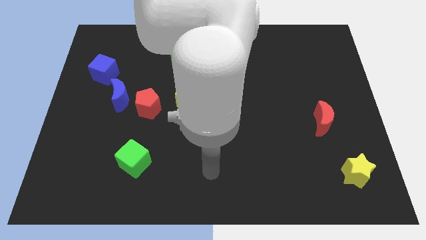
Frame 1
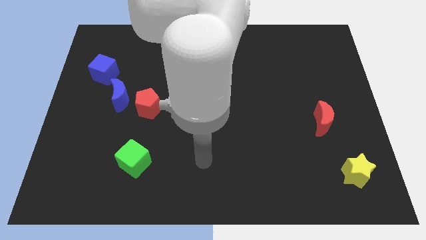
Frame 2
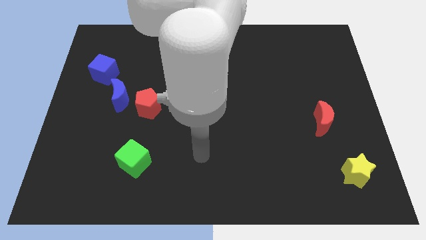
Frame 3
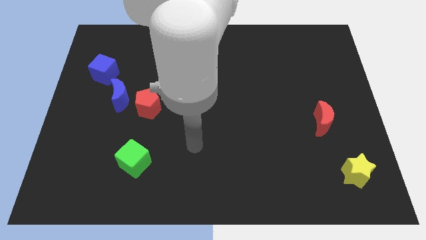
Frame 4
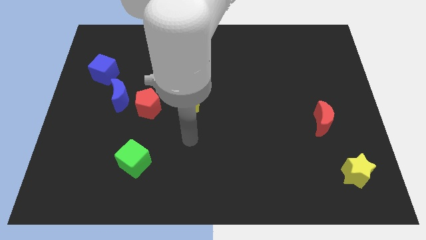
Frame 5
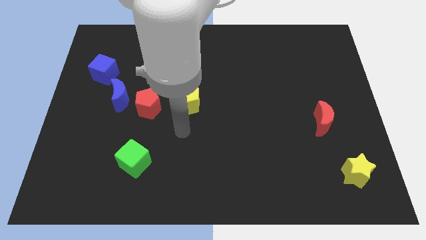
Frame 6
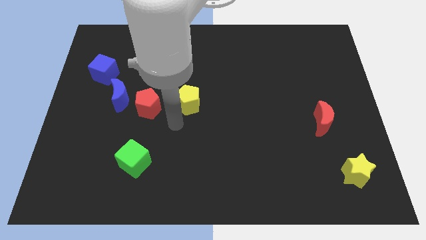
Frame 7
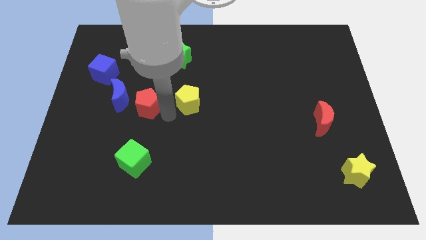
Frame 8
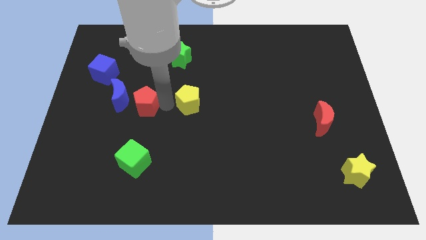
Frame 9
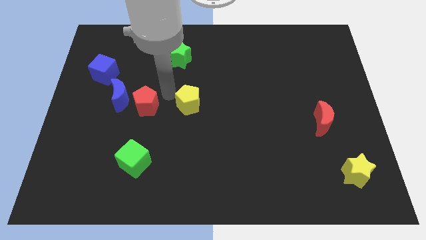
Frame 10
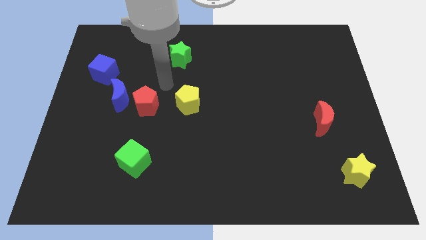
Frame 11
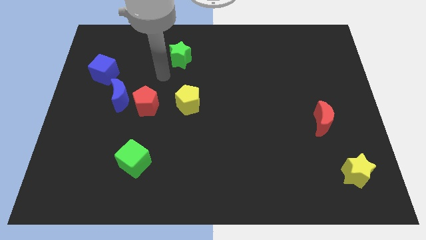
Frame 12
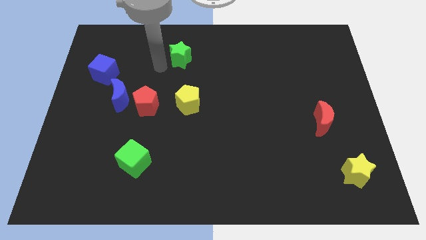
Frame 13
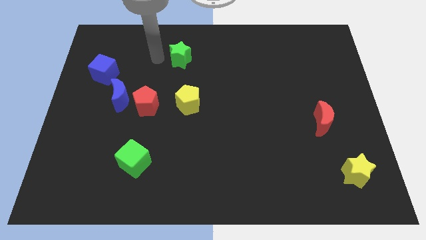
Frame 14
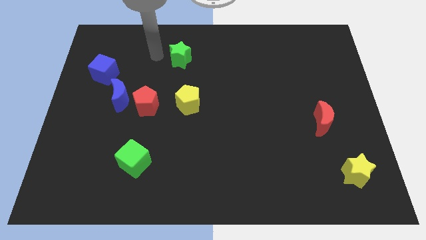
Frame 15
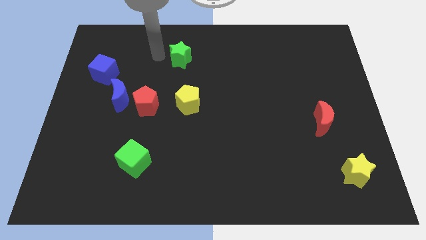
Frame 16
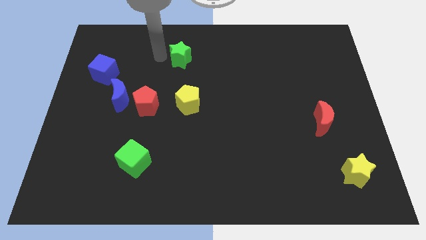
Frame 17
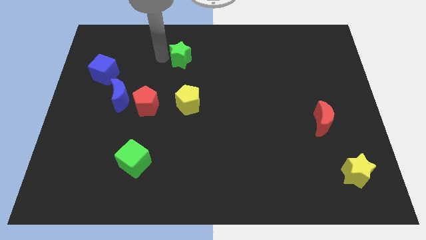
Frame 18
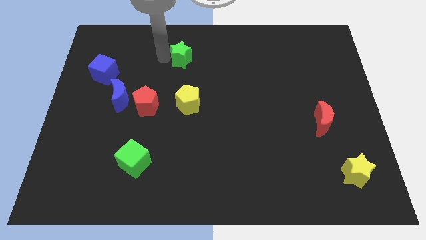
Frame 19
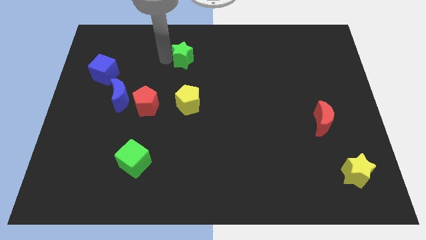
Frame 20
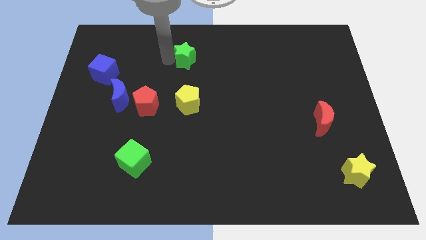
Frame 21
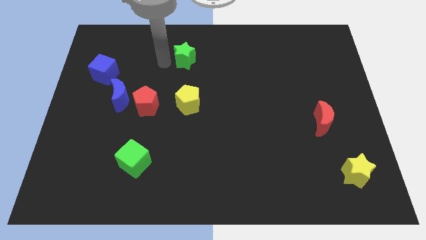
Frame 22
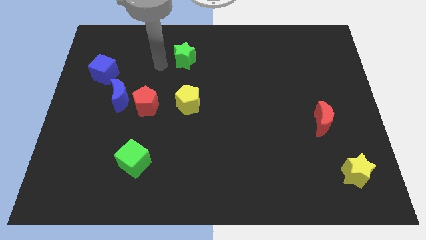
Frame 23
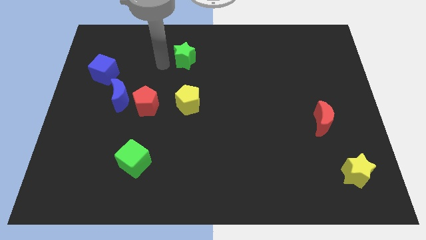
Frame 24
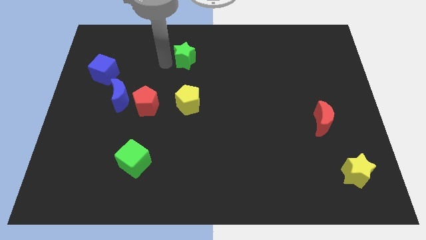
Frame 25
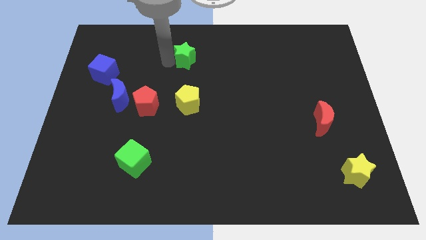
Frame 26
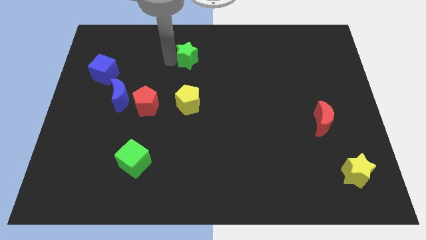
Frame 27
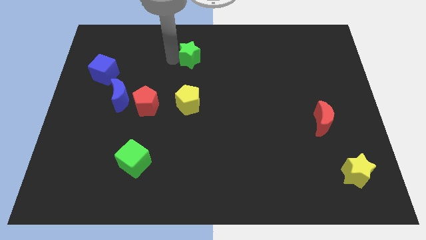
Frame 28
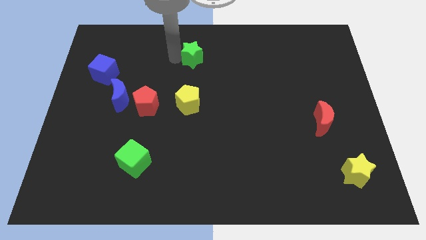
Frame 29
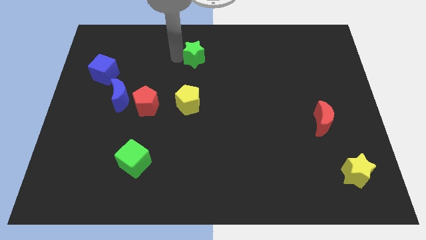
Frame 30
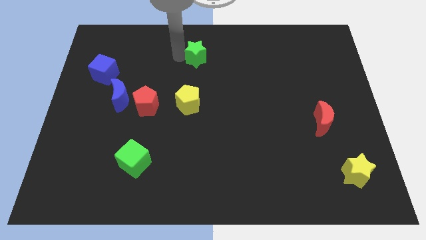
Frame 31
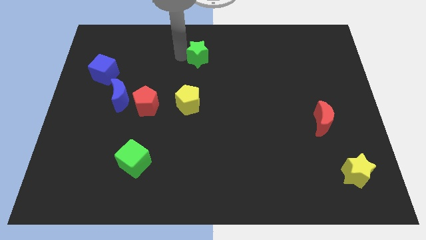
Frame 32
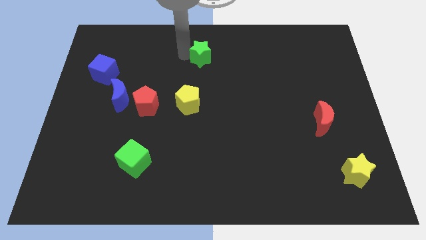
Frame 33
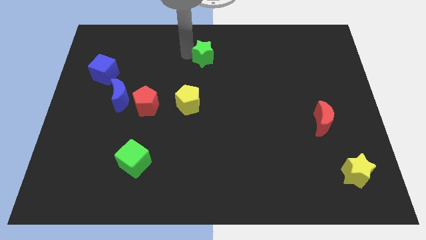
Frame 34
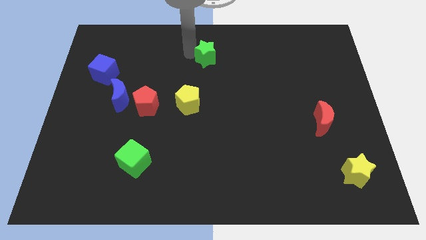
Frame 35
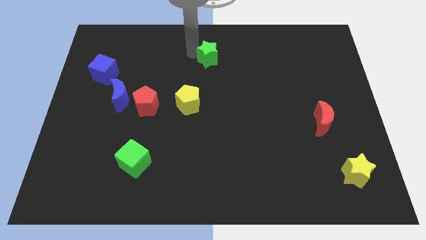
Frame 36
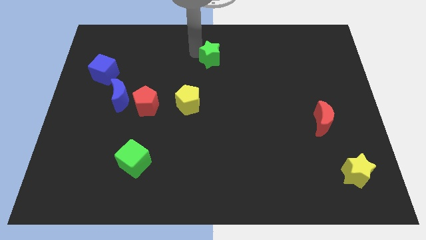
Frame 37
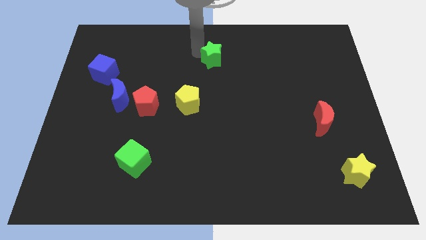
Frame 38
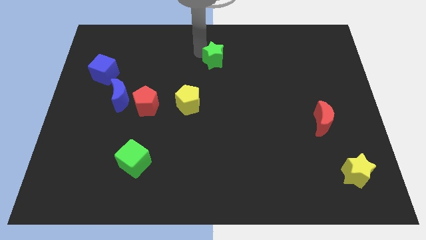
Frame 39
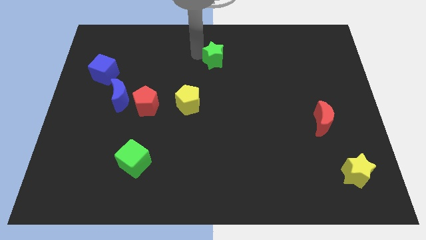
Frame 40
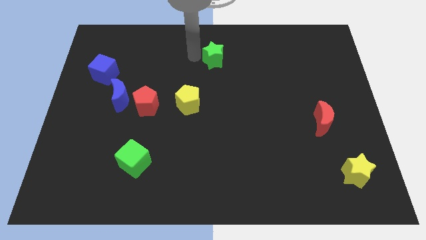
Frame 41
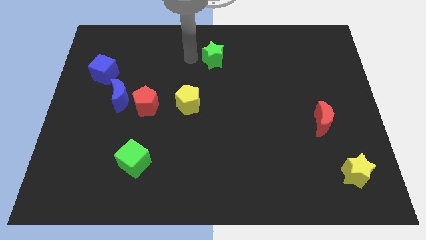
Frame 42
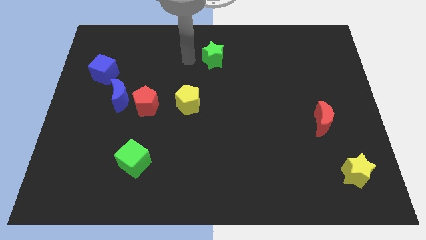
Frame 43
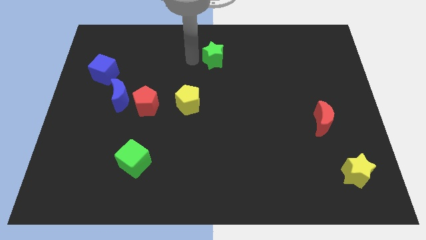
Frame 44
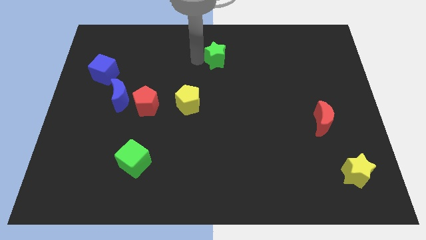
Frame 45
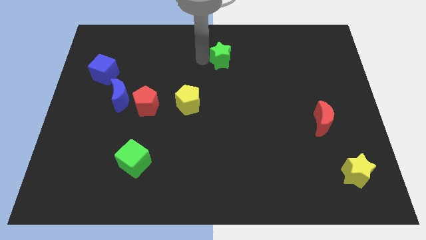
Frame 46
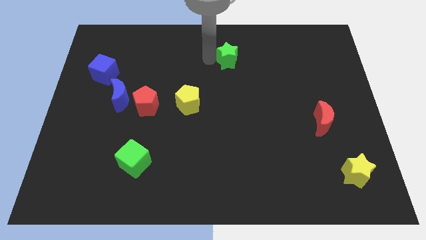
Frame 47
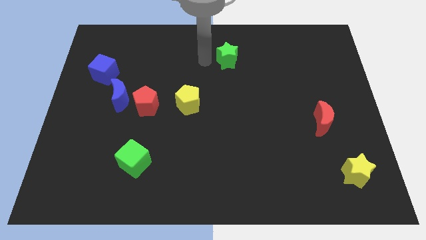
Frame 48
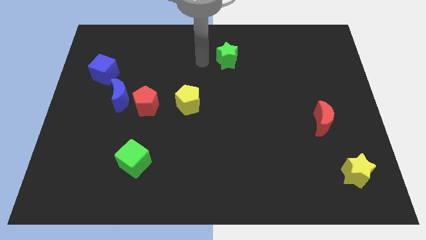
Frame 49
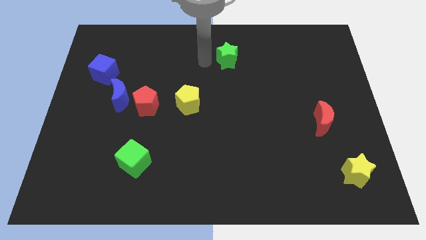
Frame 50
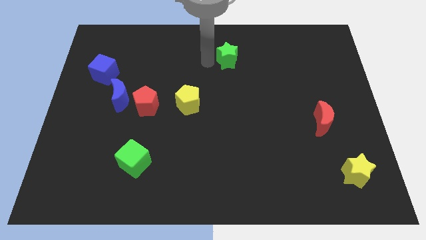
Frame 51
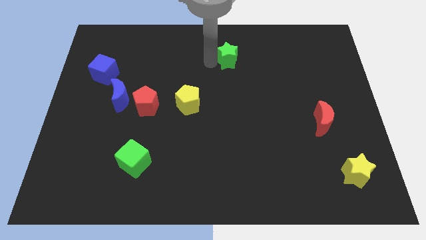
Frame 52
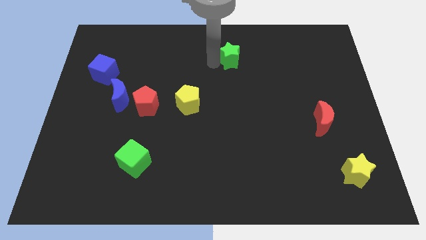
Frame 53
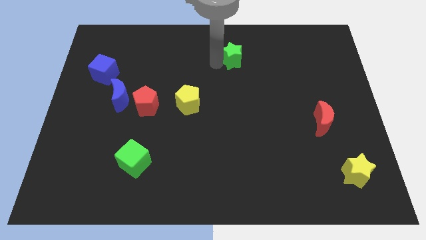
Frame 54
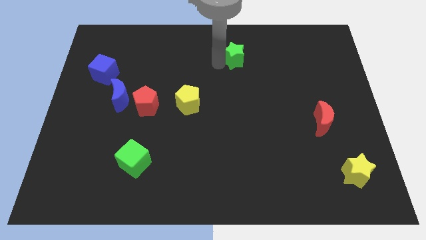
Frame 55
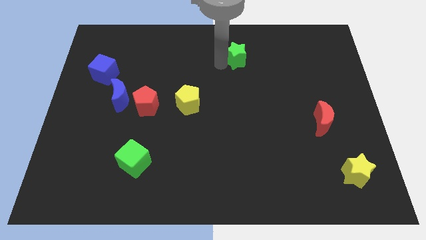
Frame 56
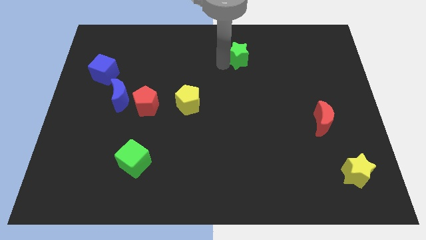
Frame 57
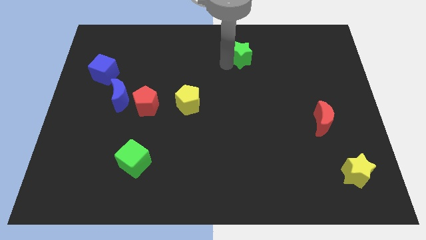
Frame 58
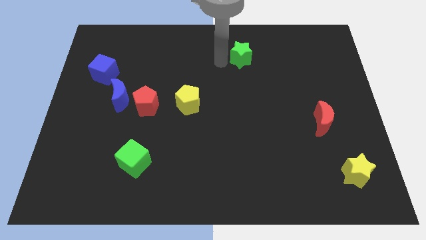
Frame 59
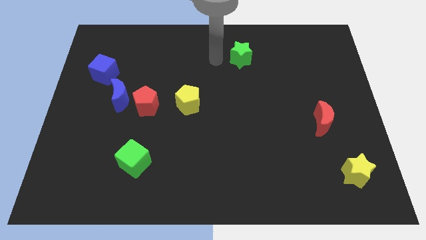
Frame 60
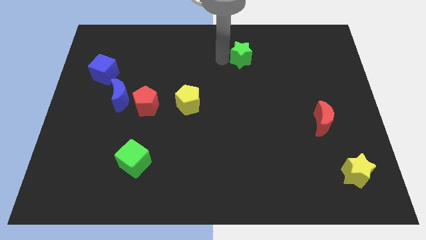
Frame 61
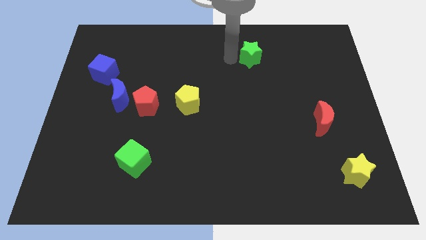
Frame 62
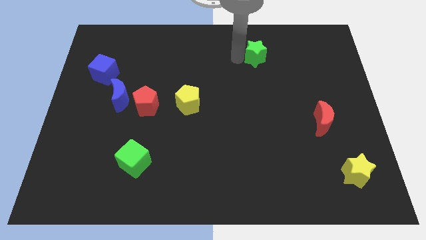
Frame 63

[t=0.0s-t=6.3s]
move the green star right

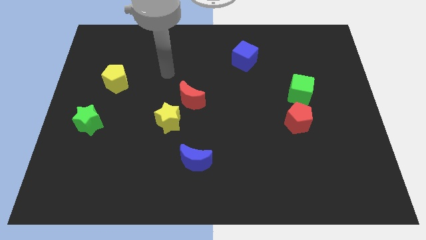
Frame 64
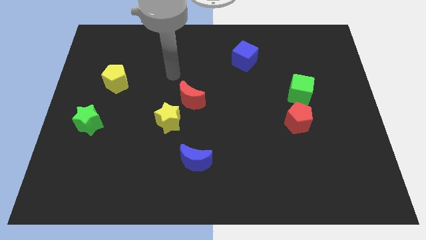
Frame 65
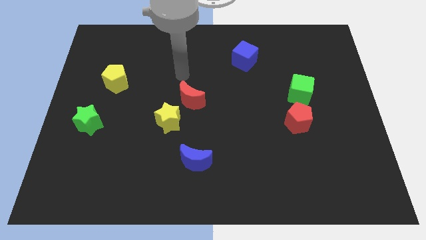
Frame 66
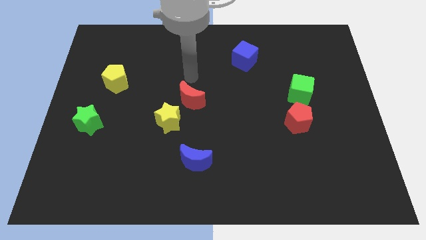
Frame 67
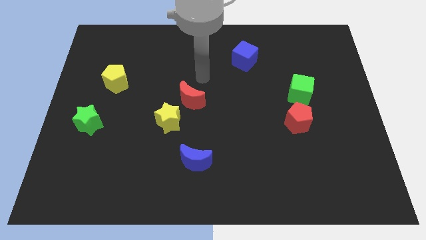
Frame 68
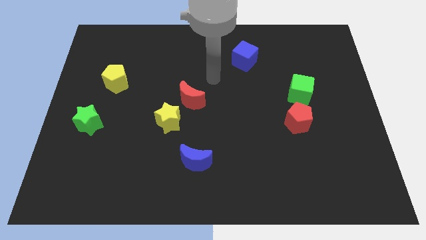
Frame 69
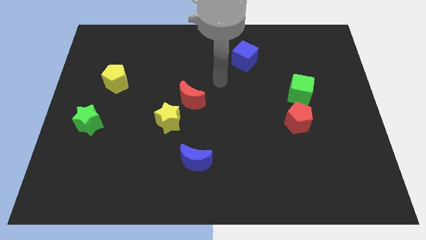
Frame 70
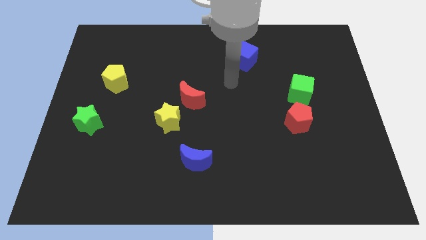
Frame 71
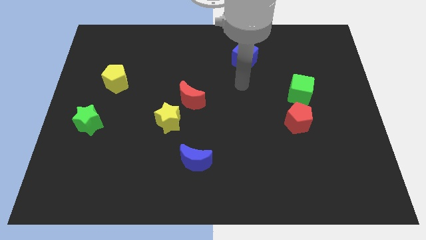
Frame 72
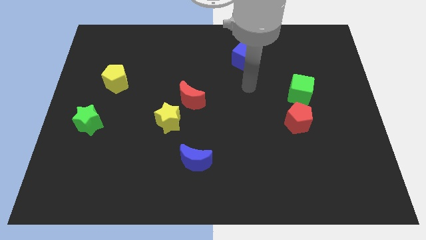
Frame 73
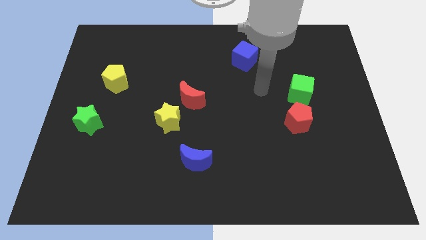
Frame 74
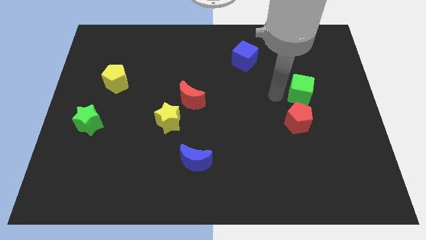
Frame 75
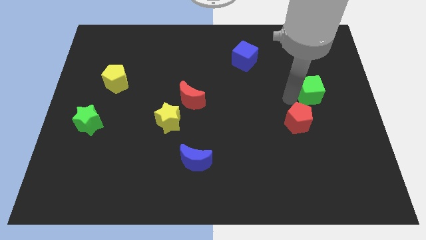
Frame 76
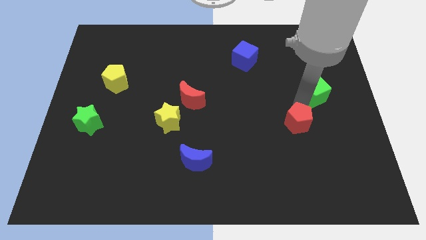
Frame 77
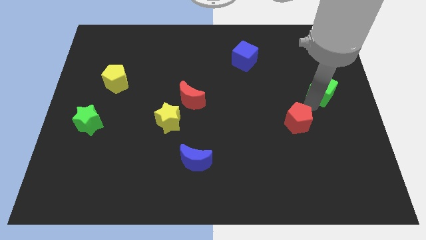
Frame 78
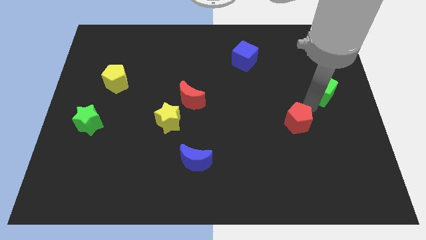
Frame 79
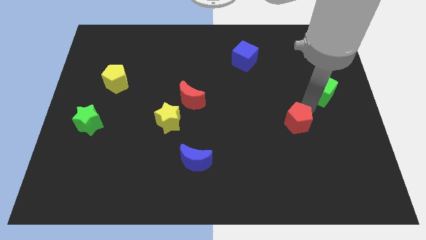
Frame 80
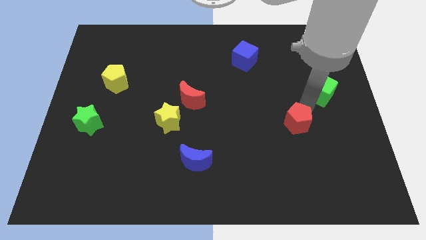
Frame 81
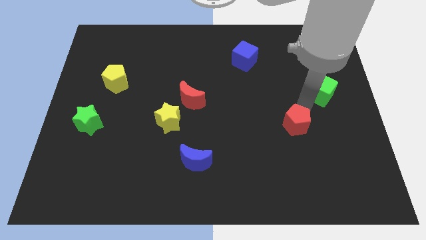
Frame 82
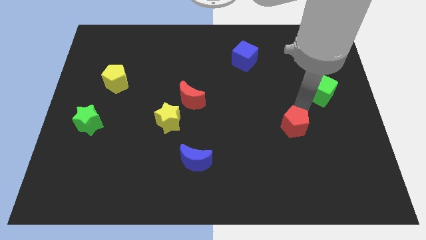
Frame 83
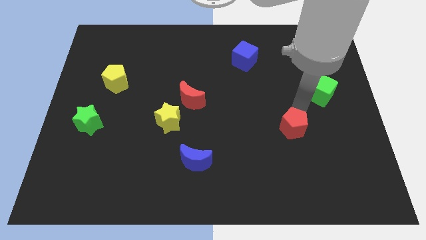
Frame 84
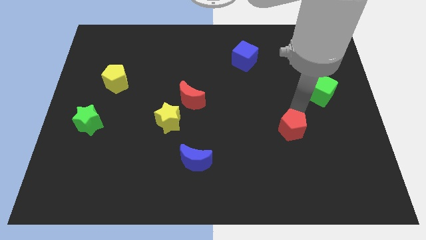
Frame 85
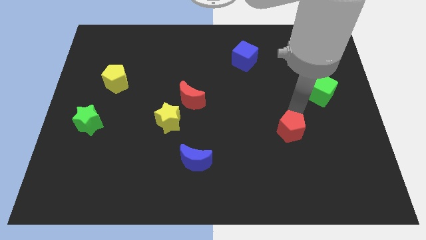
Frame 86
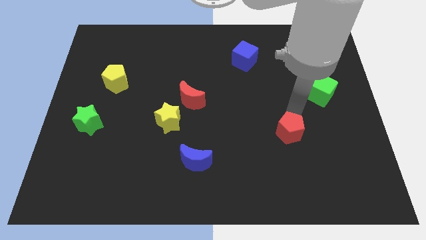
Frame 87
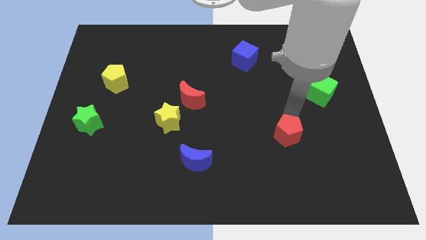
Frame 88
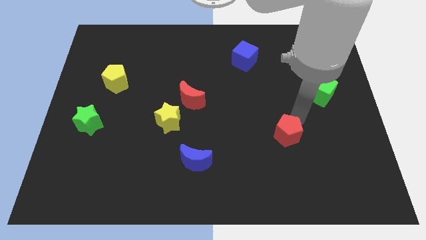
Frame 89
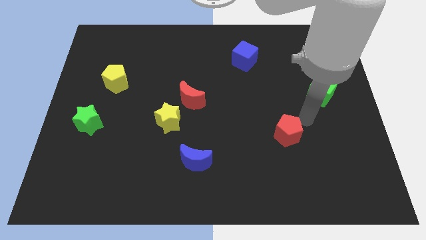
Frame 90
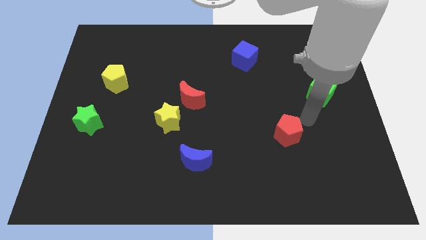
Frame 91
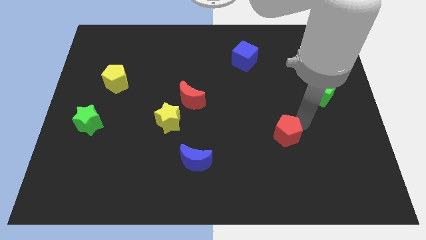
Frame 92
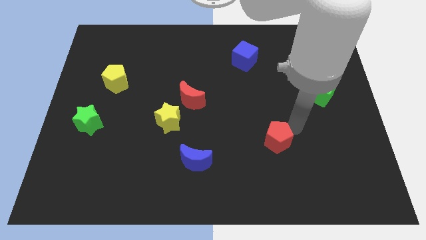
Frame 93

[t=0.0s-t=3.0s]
move the red pentagon a little diagonally downwards and left
